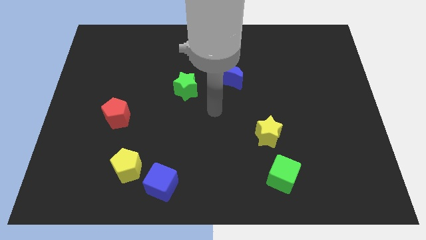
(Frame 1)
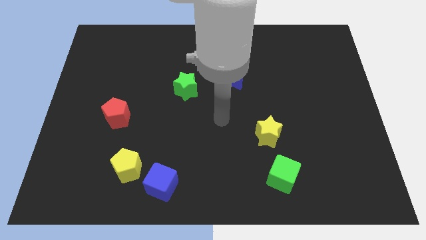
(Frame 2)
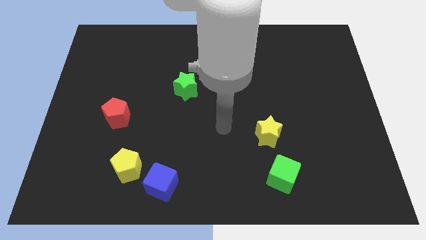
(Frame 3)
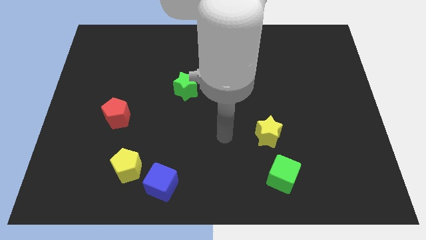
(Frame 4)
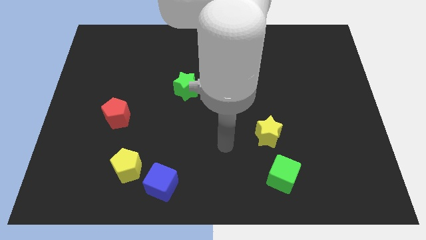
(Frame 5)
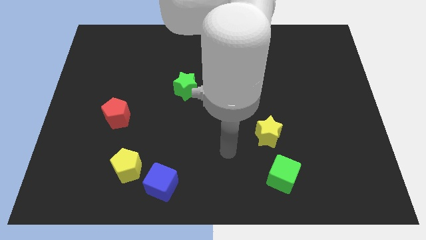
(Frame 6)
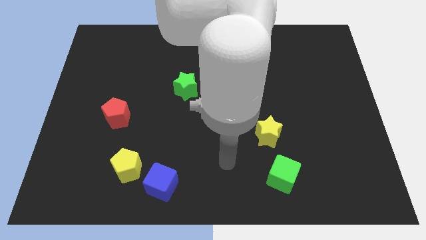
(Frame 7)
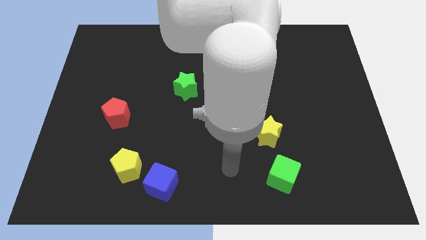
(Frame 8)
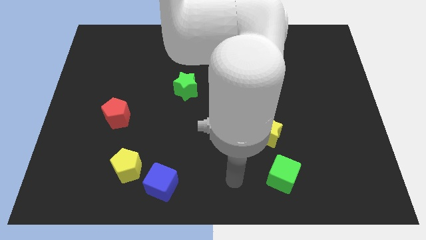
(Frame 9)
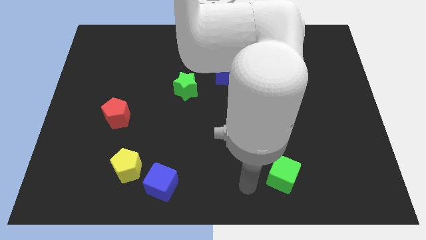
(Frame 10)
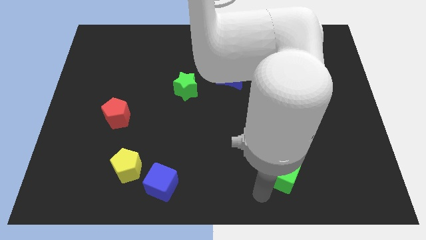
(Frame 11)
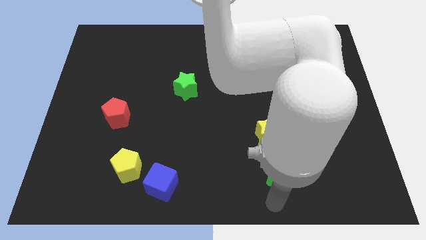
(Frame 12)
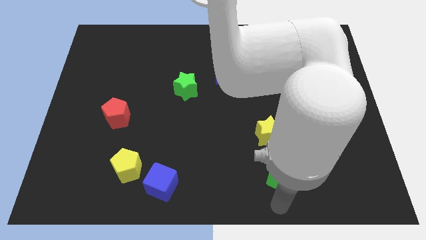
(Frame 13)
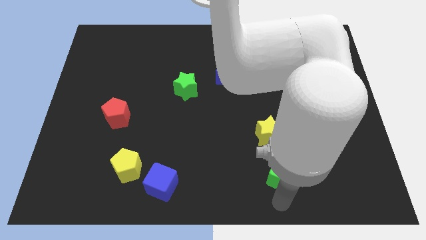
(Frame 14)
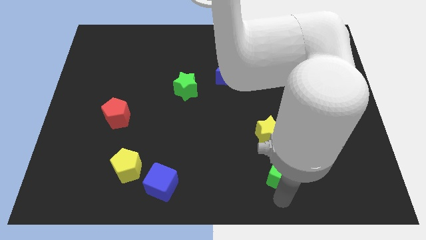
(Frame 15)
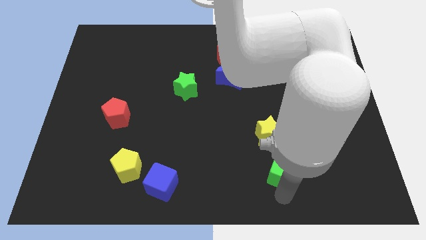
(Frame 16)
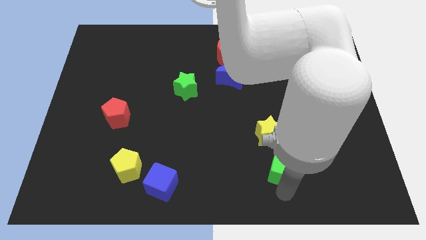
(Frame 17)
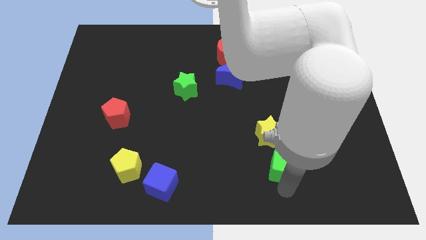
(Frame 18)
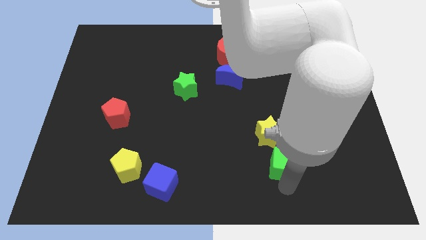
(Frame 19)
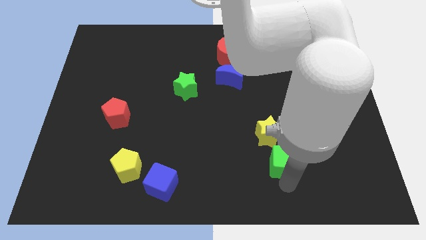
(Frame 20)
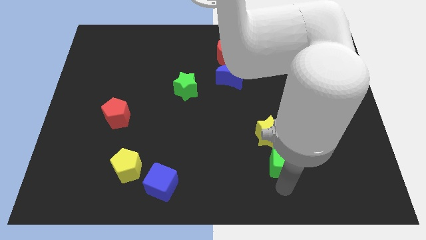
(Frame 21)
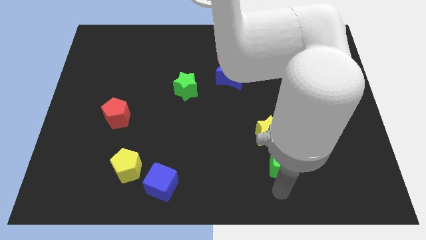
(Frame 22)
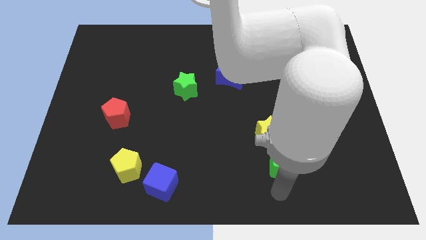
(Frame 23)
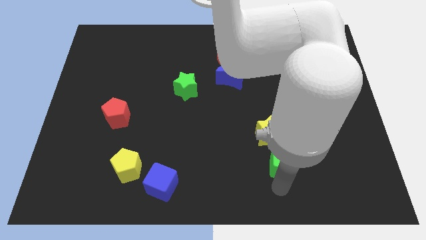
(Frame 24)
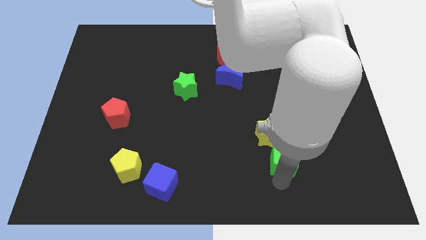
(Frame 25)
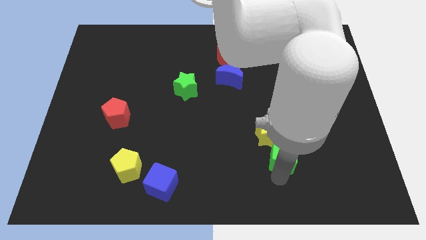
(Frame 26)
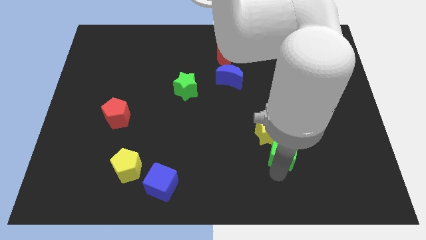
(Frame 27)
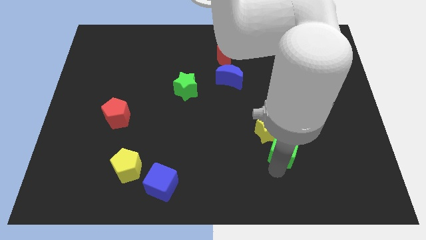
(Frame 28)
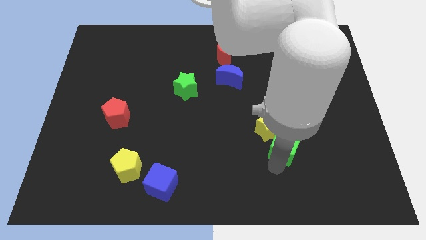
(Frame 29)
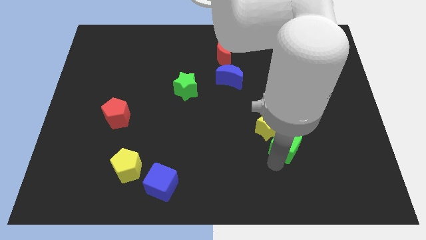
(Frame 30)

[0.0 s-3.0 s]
slide the green cube up a little bit

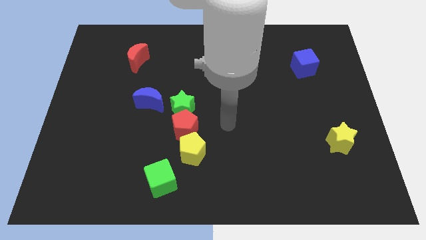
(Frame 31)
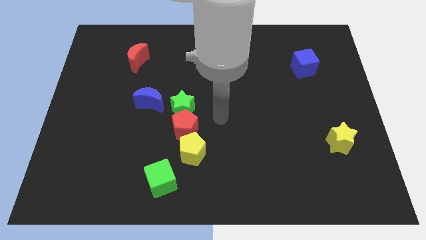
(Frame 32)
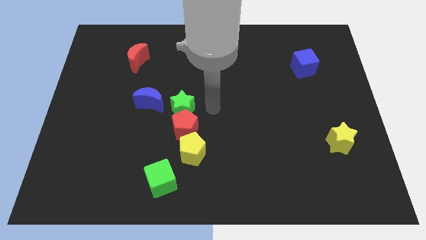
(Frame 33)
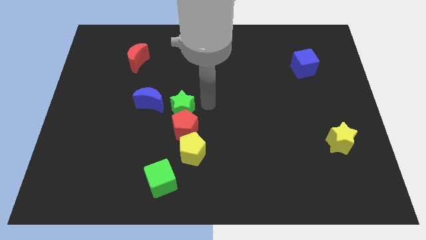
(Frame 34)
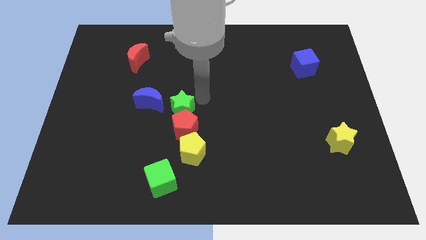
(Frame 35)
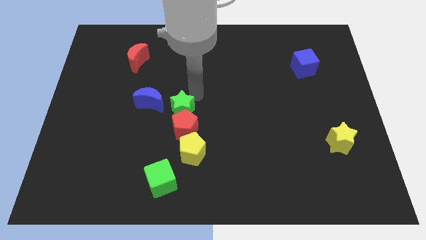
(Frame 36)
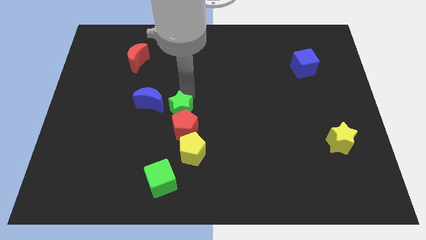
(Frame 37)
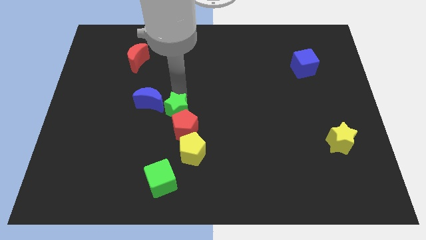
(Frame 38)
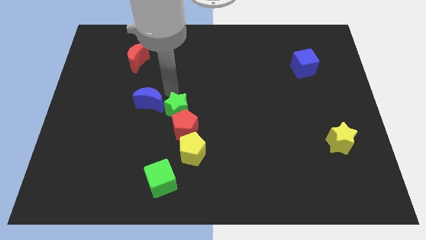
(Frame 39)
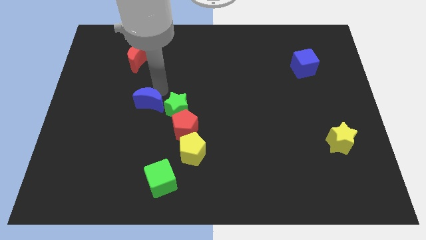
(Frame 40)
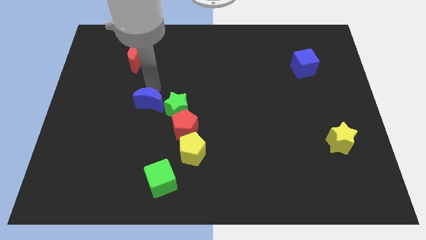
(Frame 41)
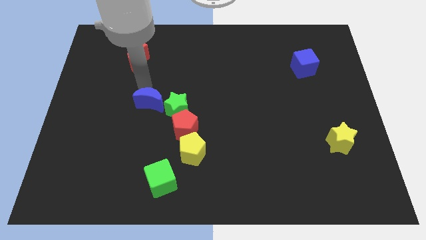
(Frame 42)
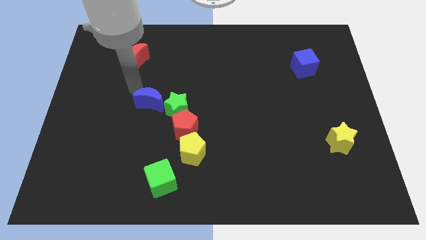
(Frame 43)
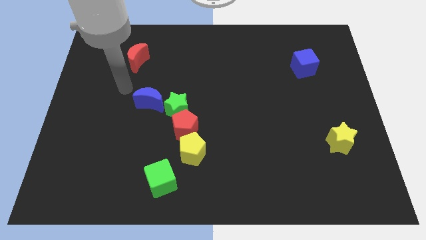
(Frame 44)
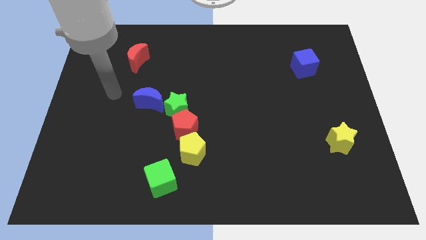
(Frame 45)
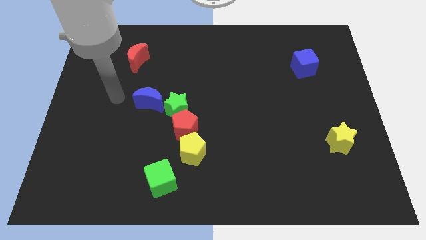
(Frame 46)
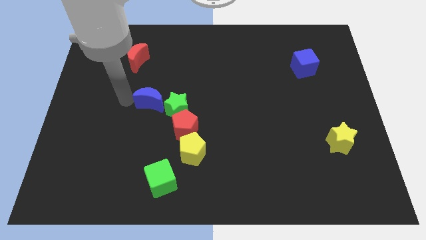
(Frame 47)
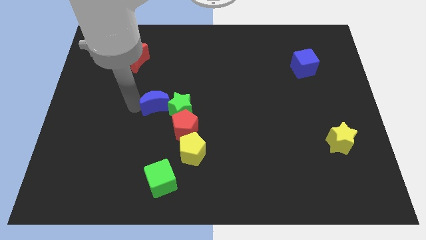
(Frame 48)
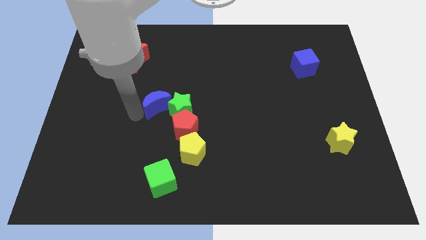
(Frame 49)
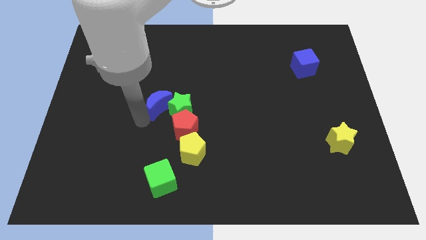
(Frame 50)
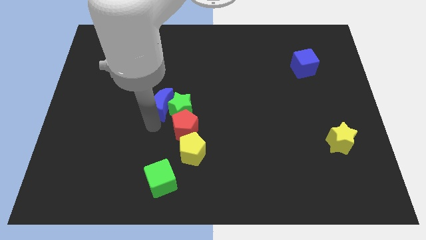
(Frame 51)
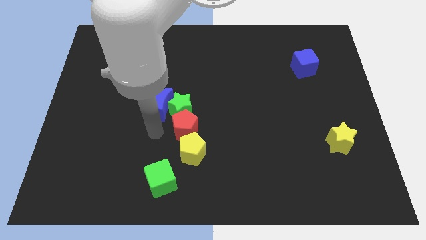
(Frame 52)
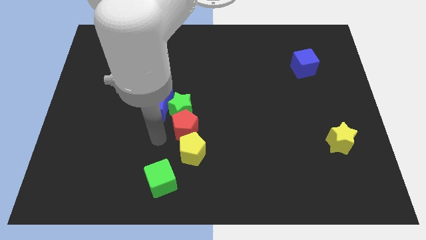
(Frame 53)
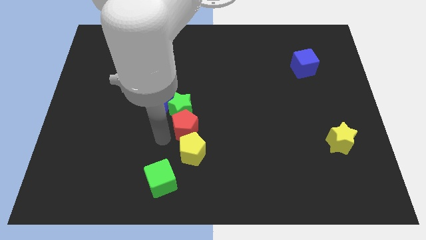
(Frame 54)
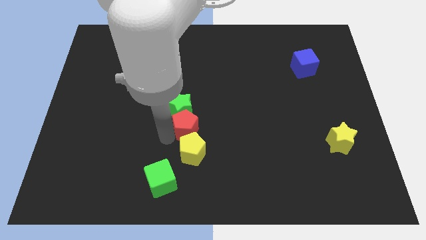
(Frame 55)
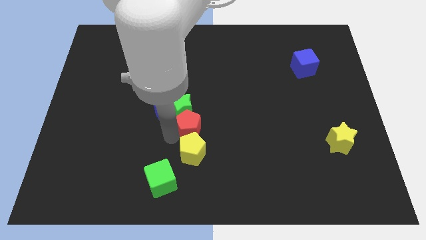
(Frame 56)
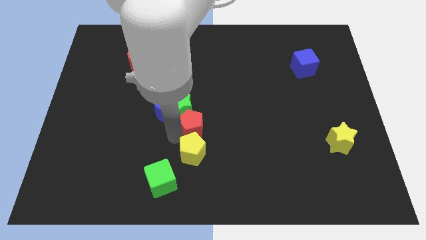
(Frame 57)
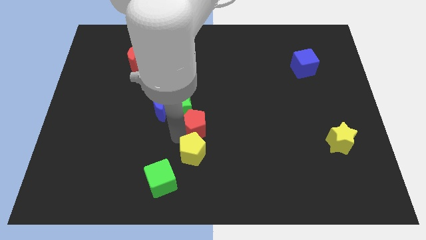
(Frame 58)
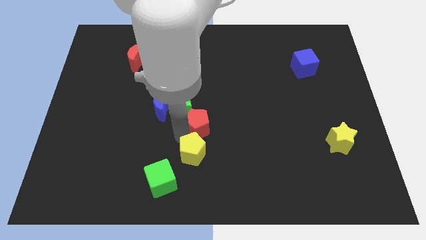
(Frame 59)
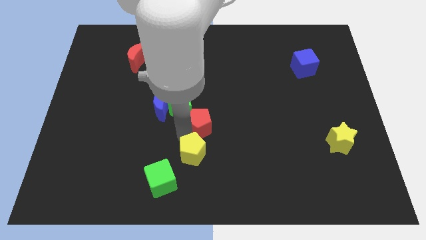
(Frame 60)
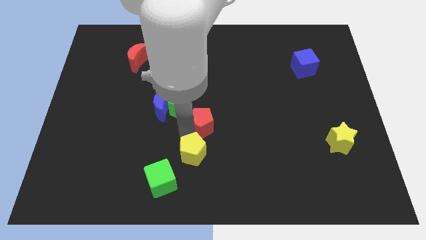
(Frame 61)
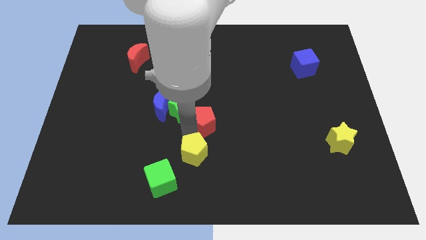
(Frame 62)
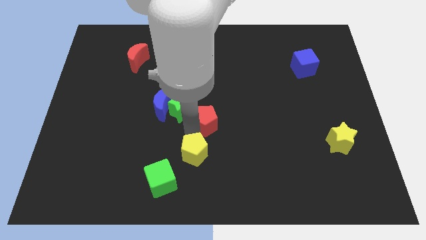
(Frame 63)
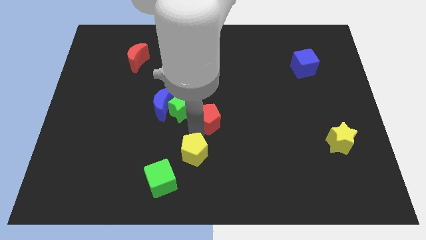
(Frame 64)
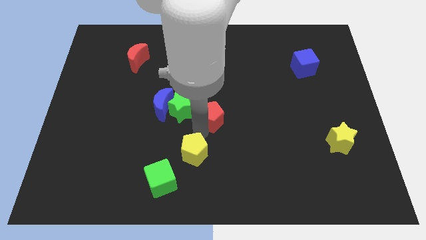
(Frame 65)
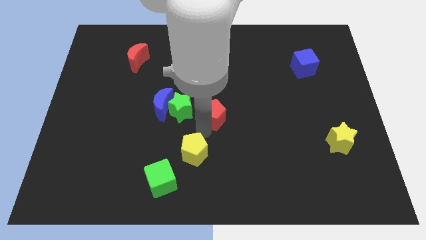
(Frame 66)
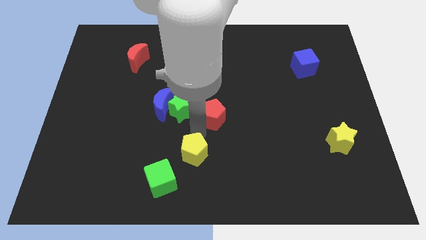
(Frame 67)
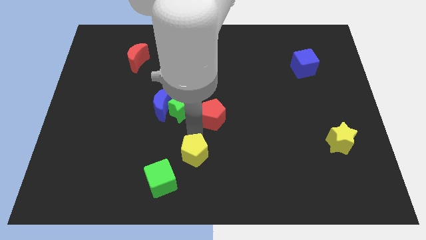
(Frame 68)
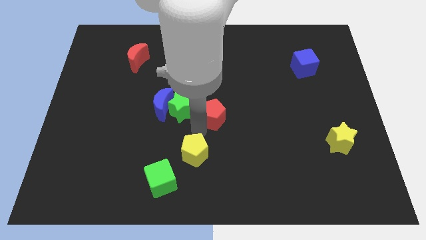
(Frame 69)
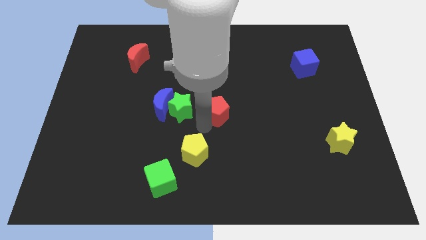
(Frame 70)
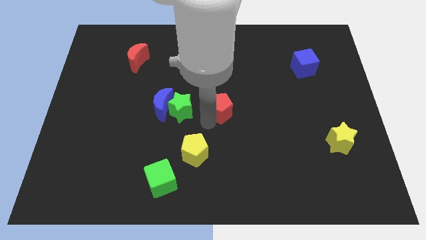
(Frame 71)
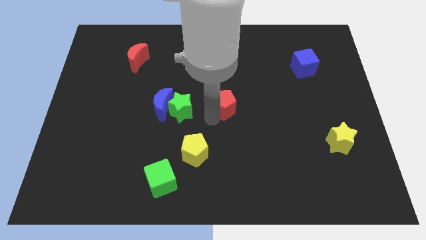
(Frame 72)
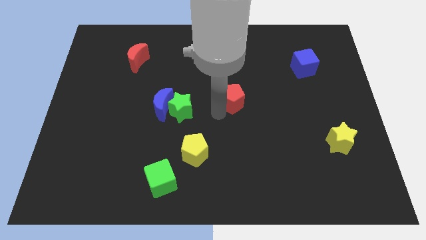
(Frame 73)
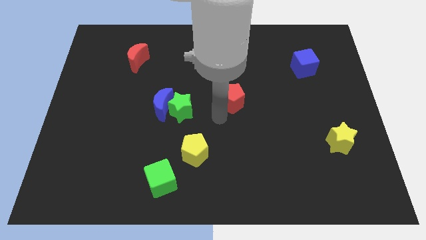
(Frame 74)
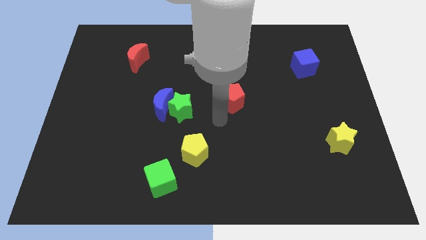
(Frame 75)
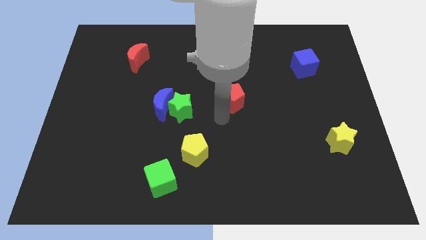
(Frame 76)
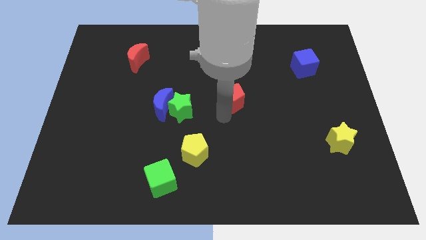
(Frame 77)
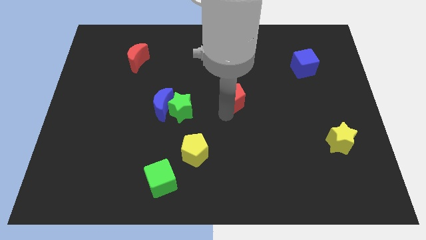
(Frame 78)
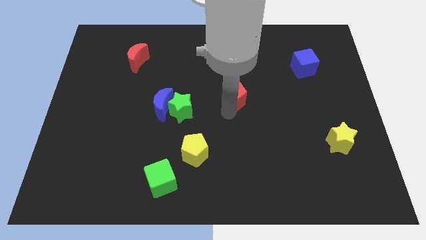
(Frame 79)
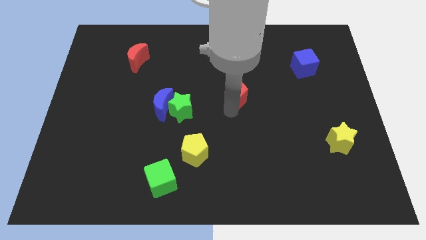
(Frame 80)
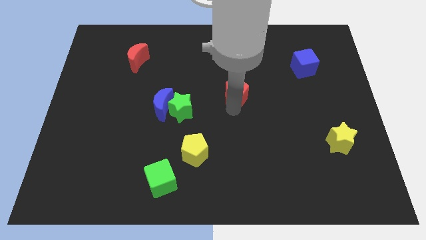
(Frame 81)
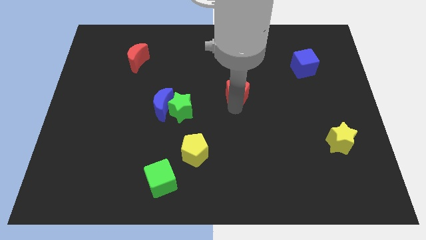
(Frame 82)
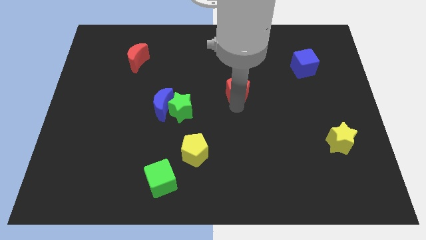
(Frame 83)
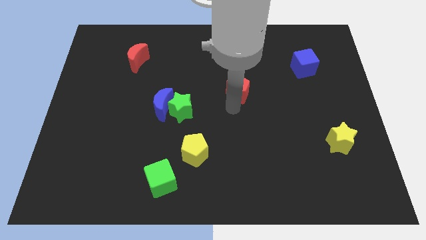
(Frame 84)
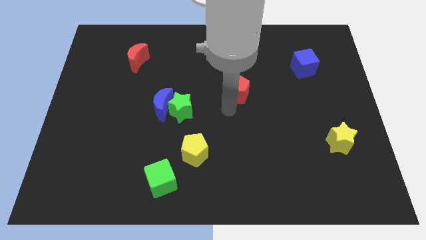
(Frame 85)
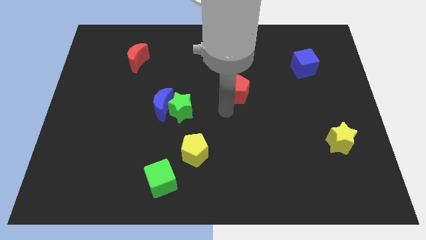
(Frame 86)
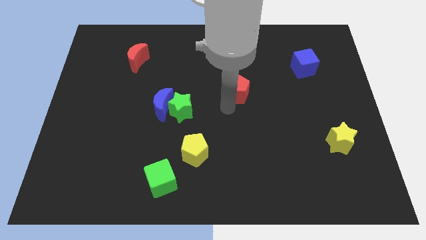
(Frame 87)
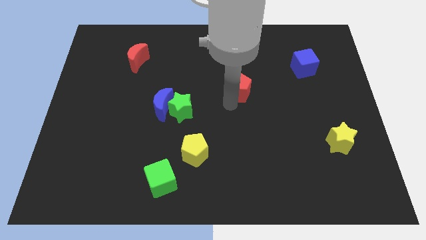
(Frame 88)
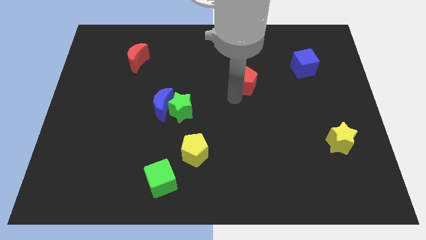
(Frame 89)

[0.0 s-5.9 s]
slide the red pentagon diagonally upwards and right
